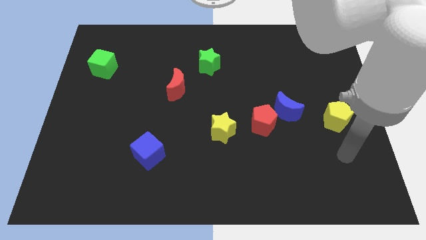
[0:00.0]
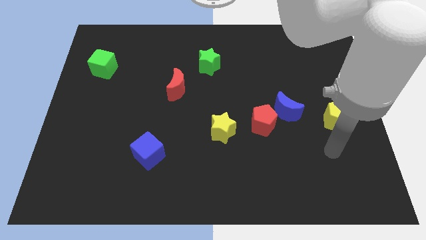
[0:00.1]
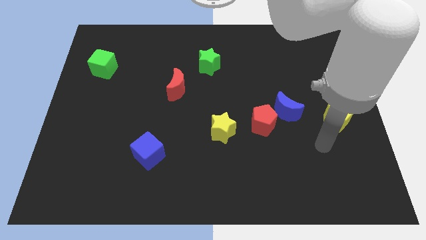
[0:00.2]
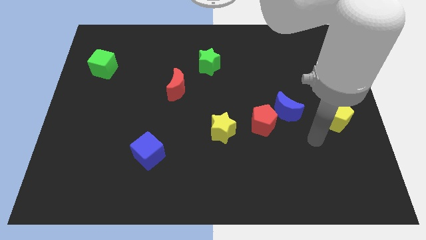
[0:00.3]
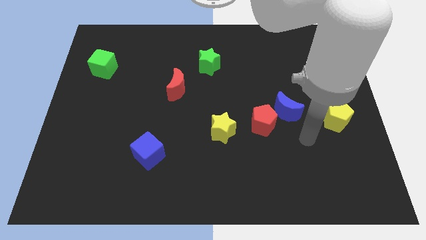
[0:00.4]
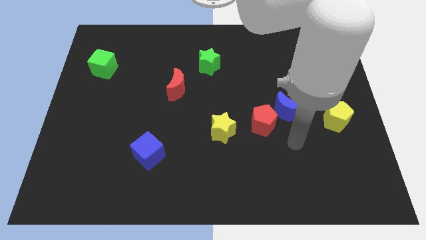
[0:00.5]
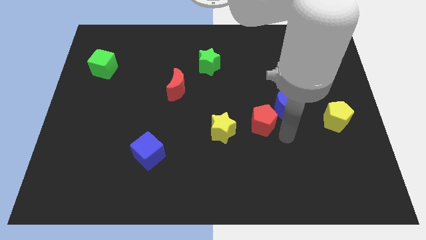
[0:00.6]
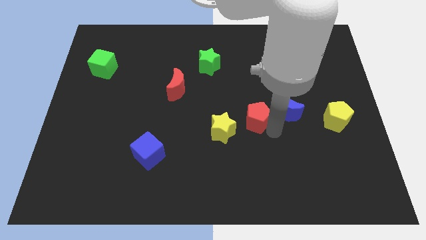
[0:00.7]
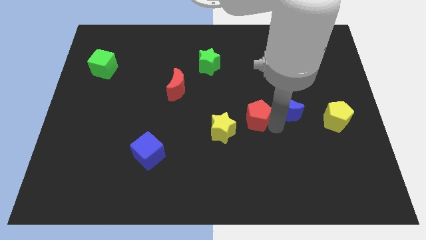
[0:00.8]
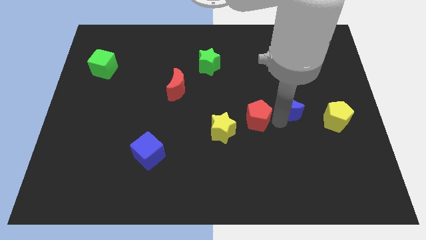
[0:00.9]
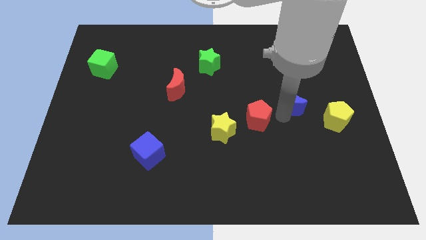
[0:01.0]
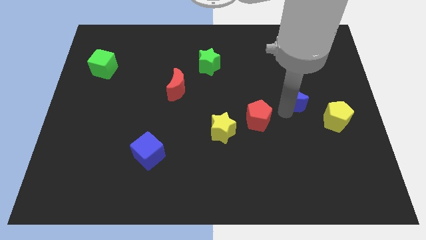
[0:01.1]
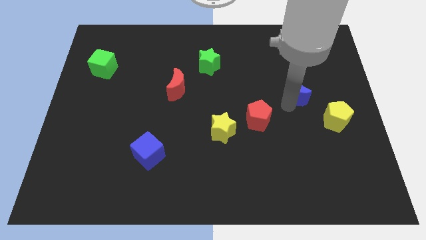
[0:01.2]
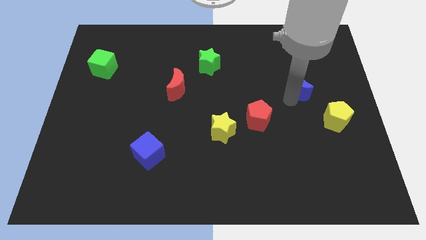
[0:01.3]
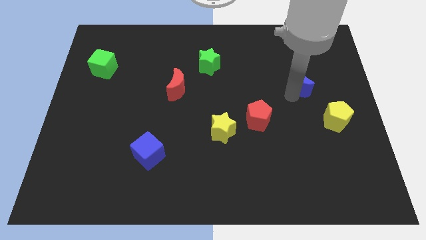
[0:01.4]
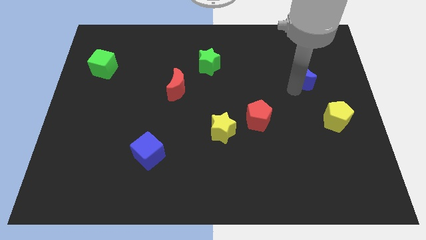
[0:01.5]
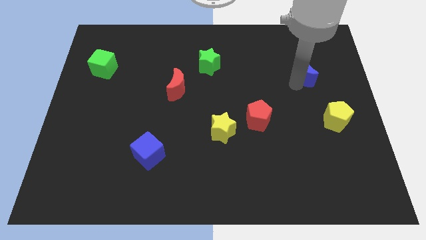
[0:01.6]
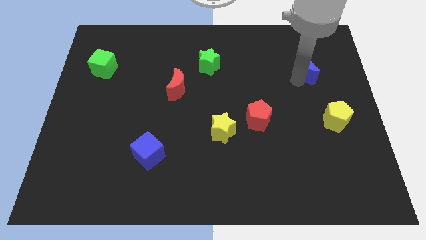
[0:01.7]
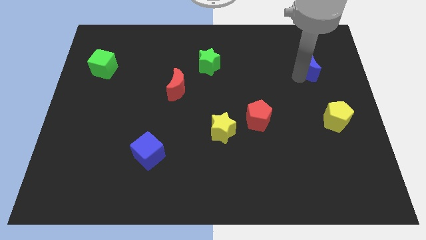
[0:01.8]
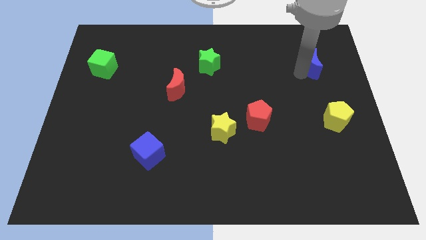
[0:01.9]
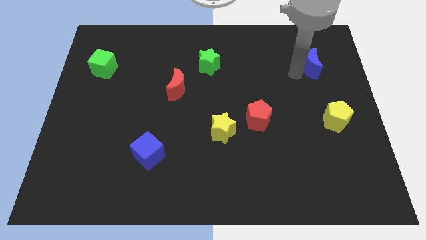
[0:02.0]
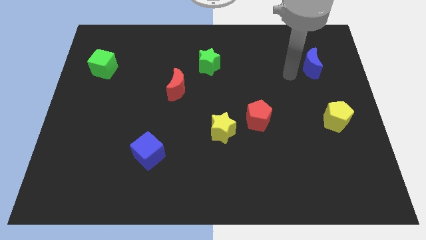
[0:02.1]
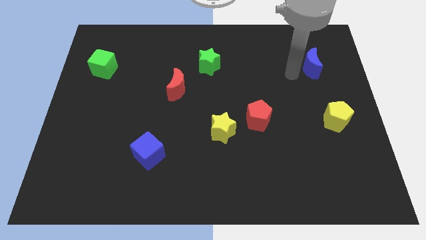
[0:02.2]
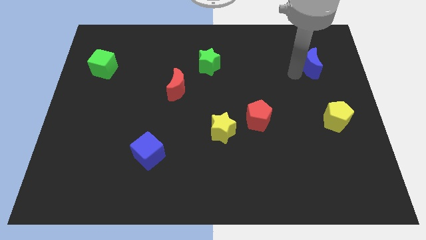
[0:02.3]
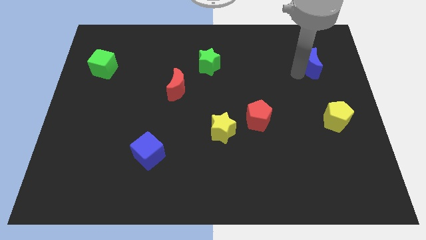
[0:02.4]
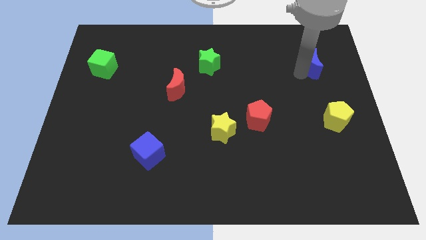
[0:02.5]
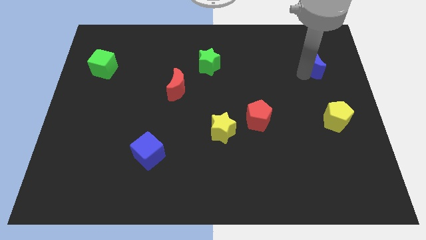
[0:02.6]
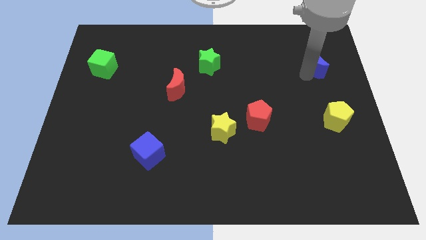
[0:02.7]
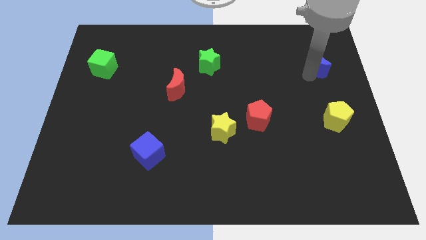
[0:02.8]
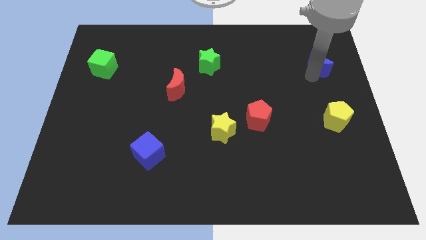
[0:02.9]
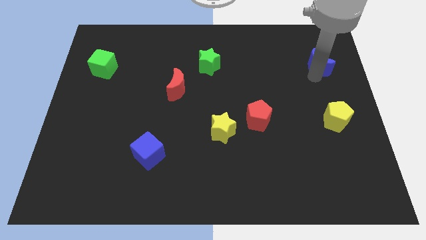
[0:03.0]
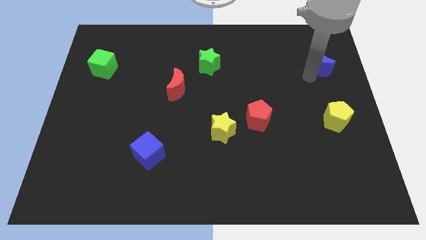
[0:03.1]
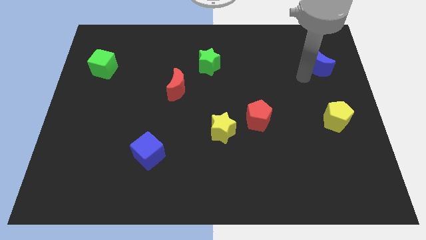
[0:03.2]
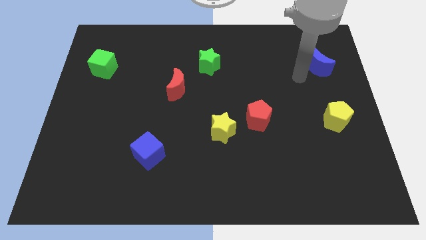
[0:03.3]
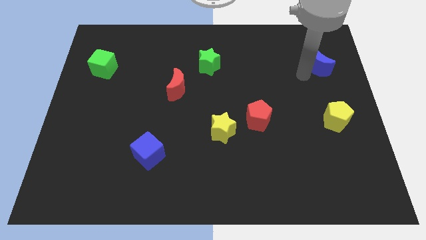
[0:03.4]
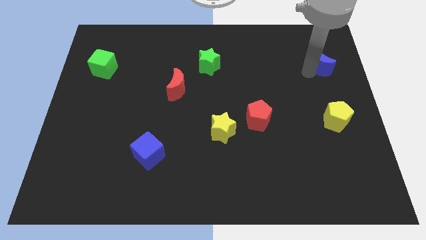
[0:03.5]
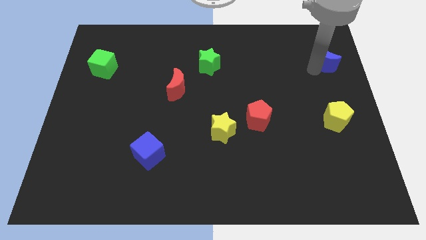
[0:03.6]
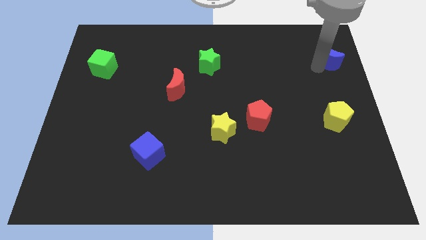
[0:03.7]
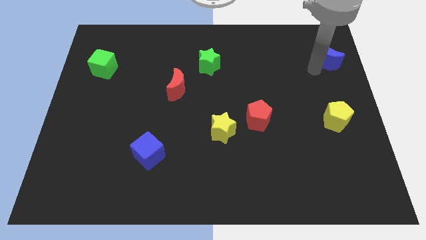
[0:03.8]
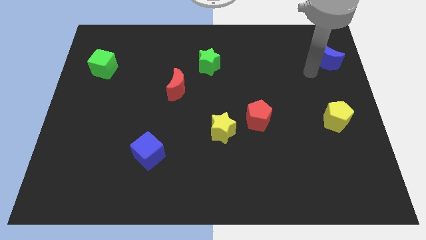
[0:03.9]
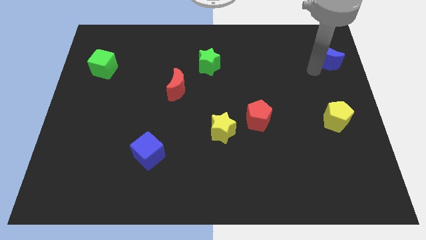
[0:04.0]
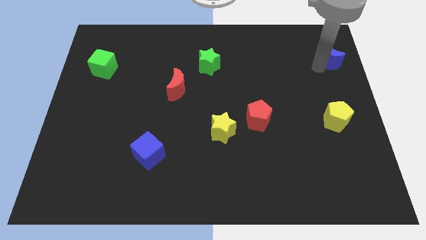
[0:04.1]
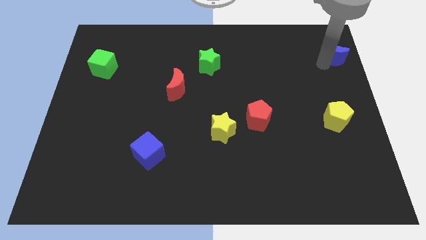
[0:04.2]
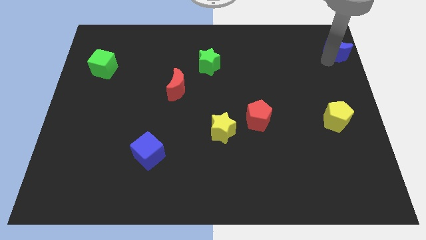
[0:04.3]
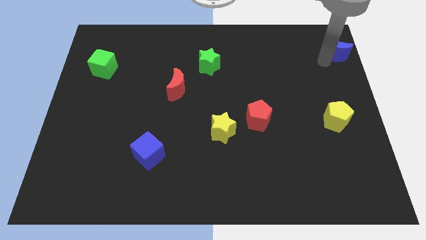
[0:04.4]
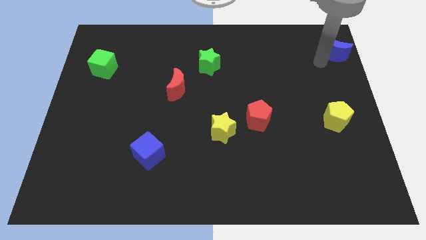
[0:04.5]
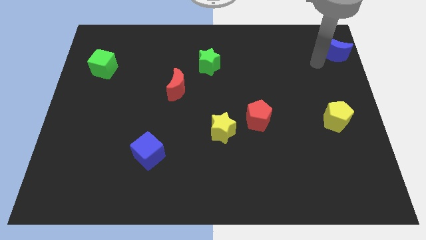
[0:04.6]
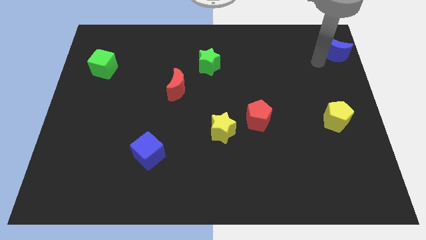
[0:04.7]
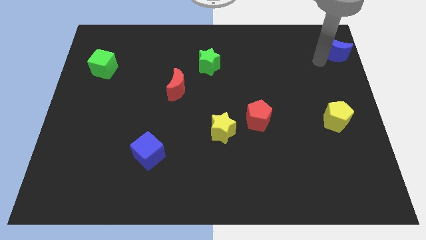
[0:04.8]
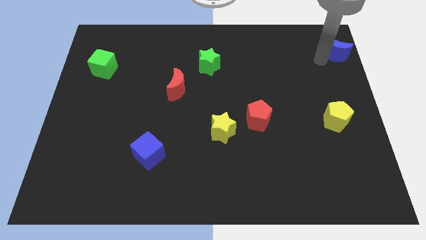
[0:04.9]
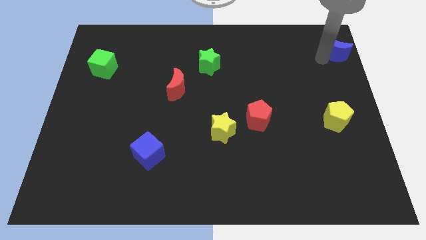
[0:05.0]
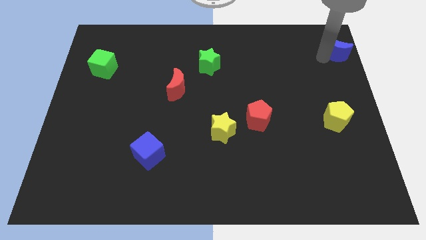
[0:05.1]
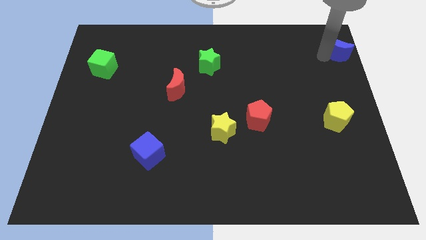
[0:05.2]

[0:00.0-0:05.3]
slide the blue moon to the upper right corner

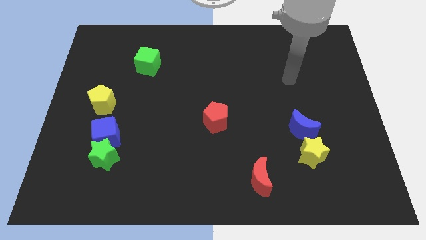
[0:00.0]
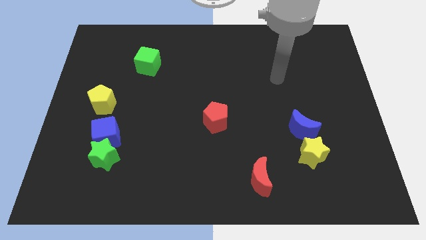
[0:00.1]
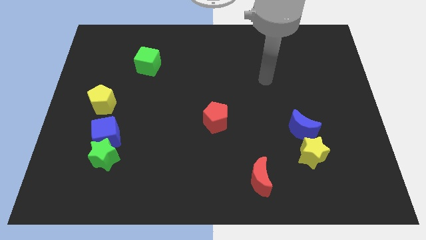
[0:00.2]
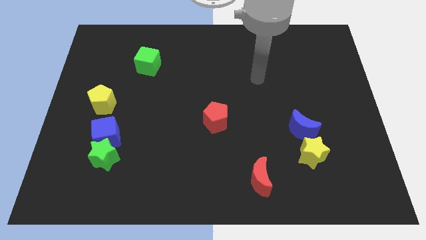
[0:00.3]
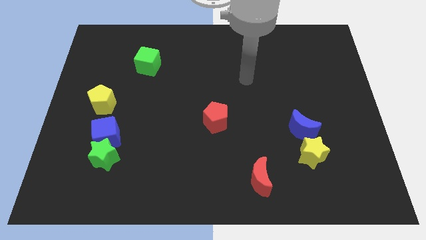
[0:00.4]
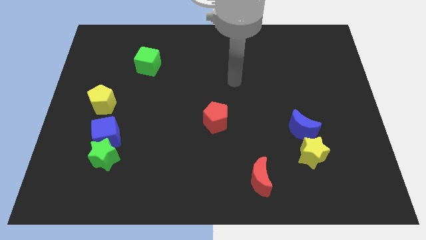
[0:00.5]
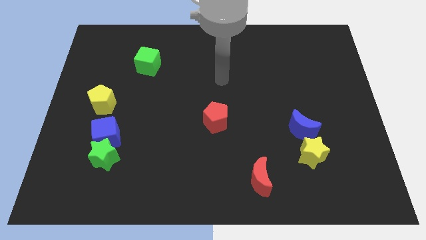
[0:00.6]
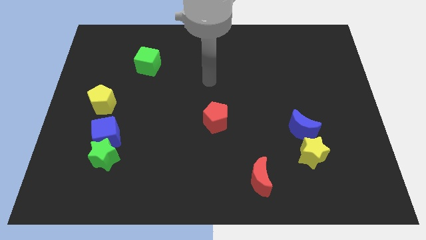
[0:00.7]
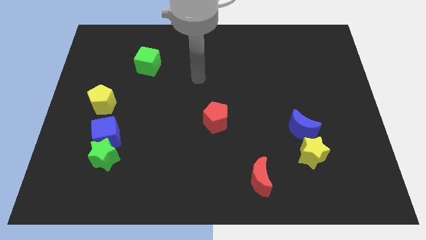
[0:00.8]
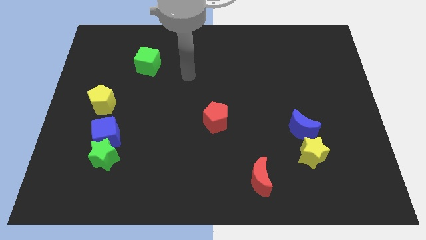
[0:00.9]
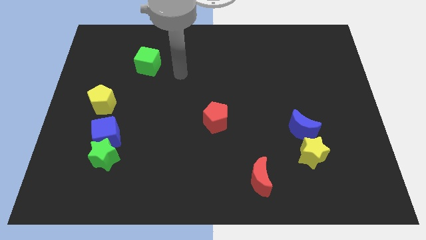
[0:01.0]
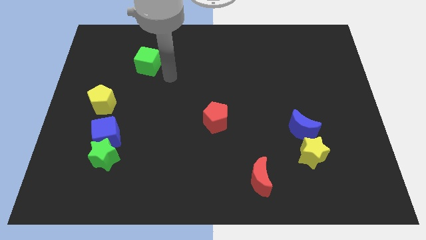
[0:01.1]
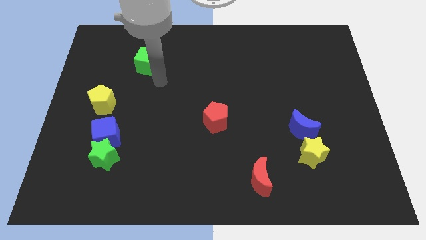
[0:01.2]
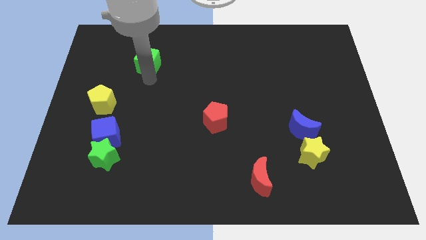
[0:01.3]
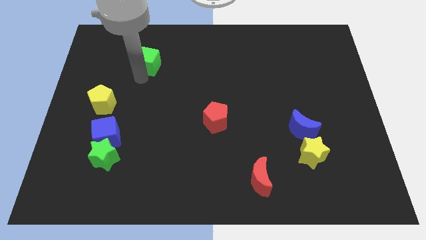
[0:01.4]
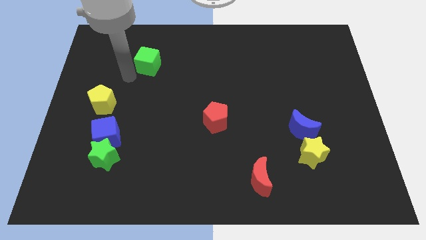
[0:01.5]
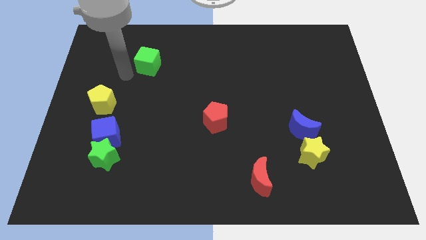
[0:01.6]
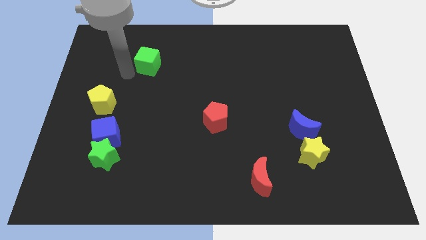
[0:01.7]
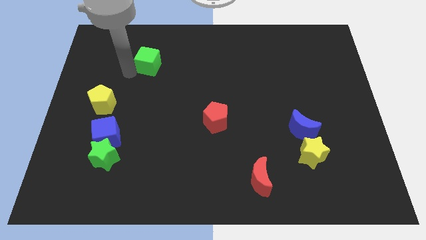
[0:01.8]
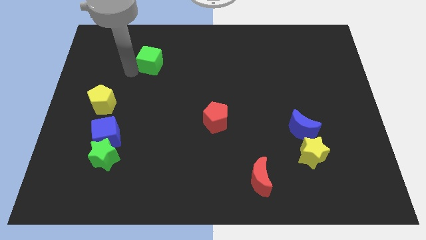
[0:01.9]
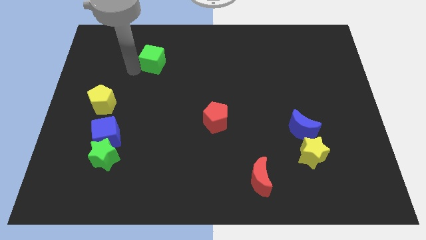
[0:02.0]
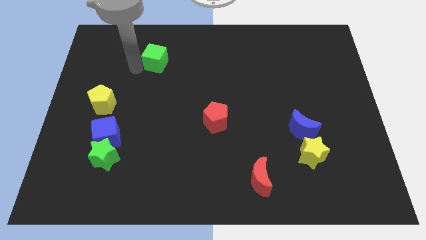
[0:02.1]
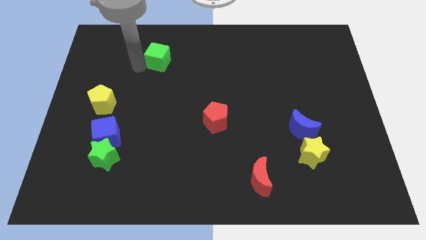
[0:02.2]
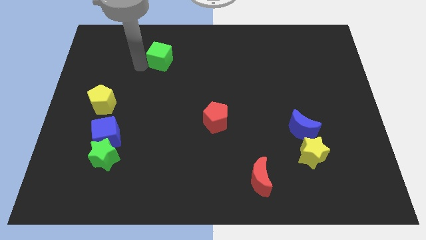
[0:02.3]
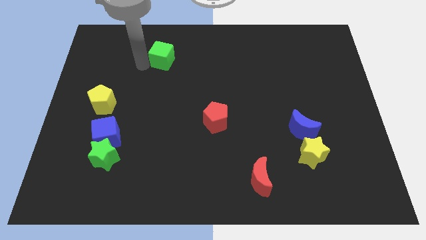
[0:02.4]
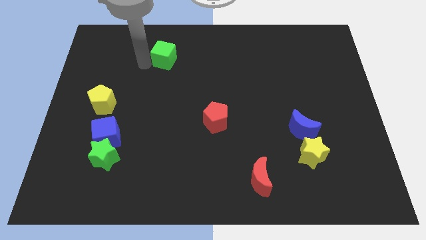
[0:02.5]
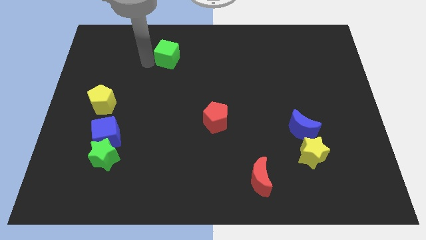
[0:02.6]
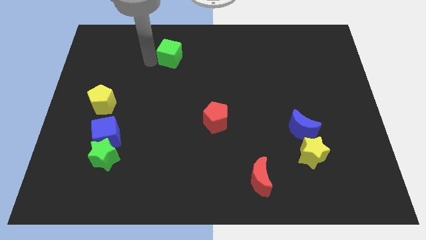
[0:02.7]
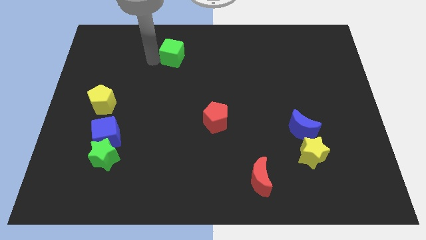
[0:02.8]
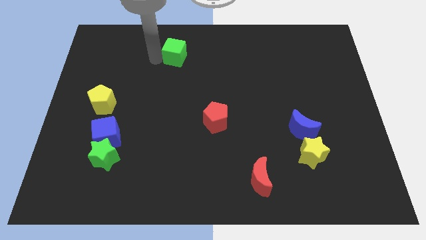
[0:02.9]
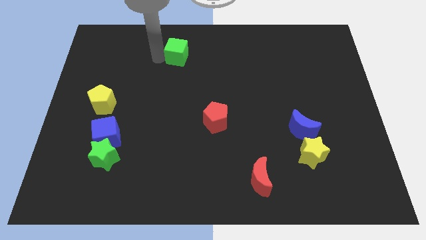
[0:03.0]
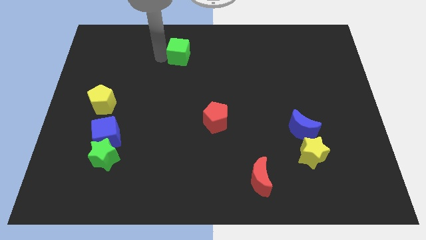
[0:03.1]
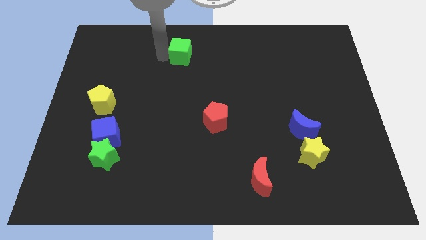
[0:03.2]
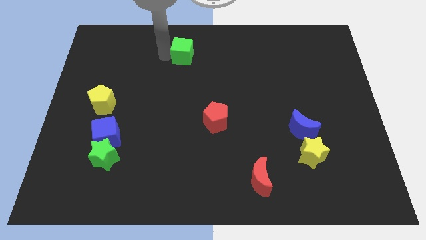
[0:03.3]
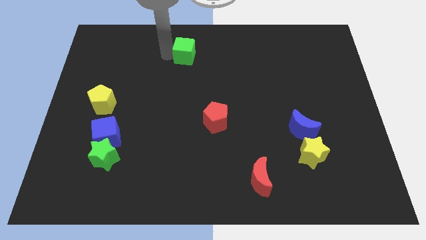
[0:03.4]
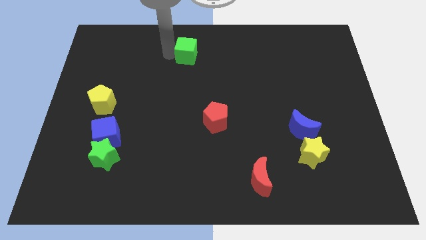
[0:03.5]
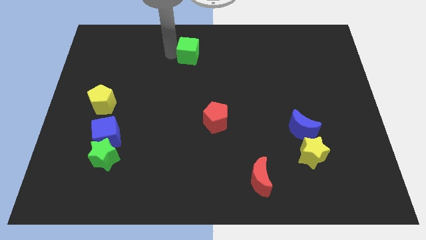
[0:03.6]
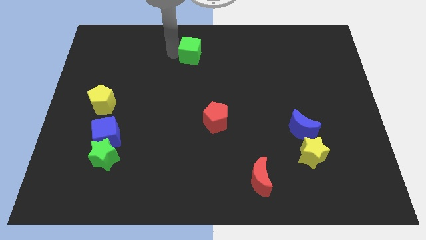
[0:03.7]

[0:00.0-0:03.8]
move the green cube to the top side
